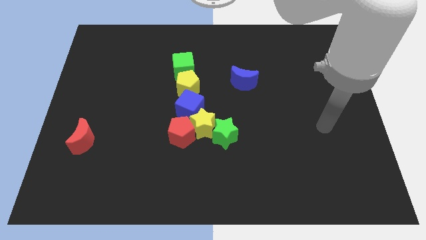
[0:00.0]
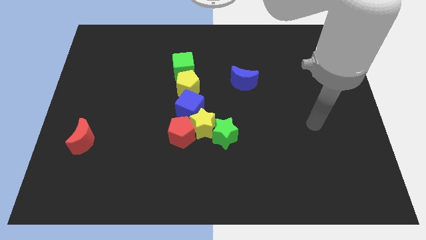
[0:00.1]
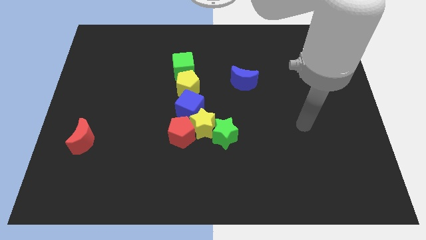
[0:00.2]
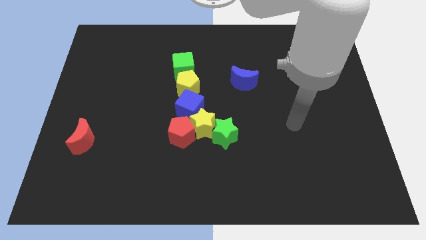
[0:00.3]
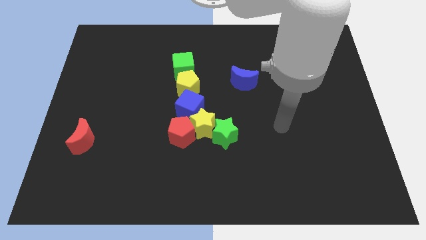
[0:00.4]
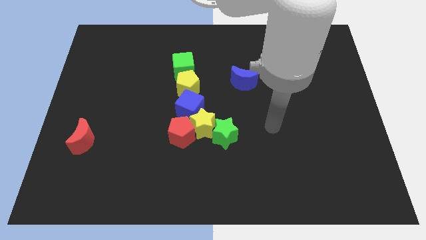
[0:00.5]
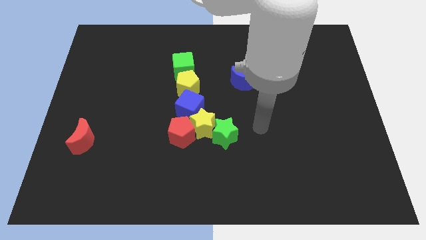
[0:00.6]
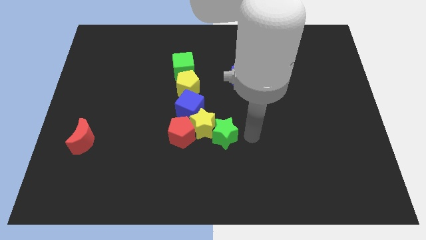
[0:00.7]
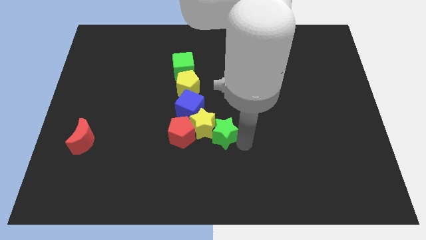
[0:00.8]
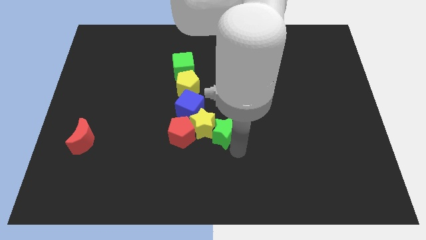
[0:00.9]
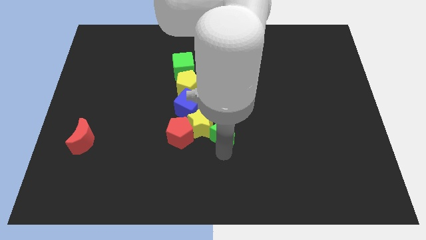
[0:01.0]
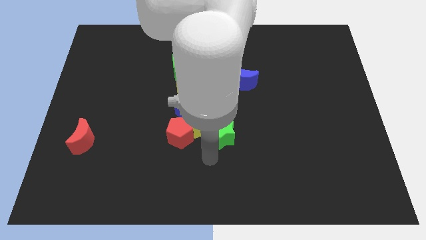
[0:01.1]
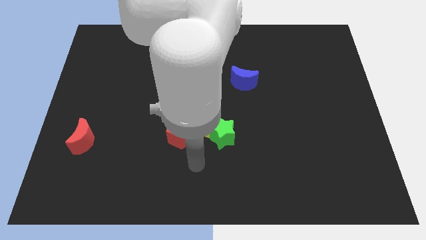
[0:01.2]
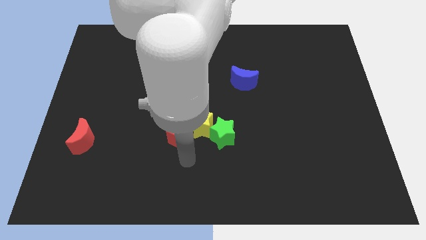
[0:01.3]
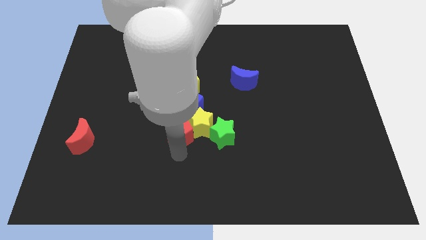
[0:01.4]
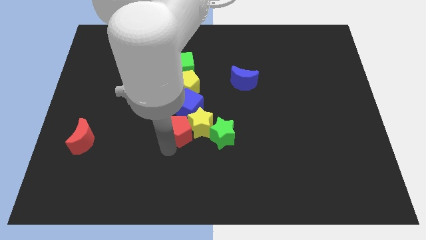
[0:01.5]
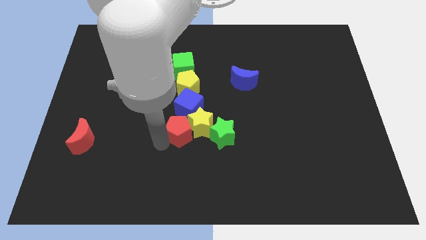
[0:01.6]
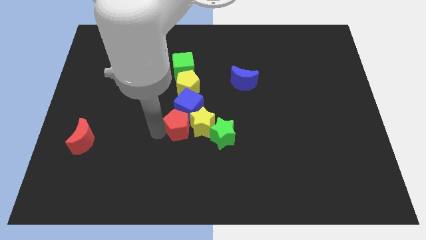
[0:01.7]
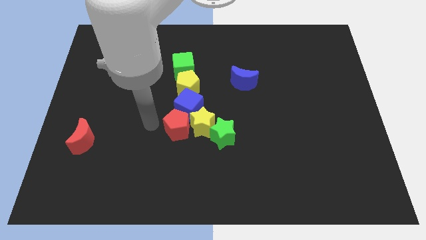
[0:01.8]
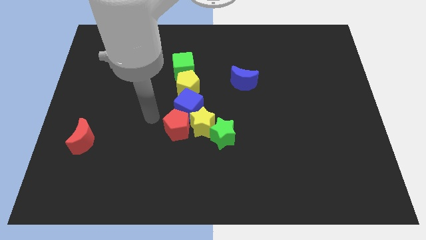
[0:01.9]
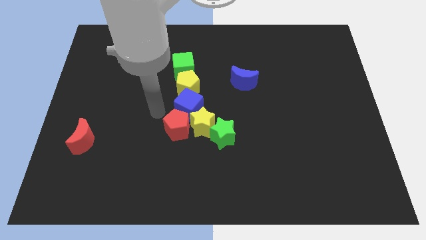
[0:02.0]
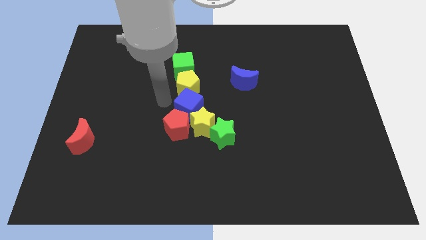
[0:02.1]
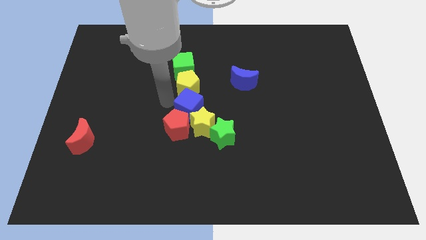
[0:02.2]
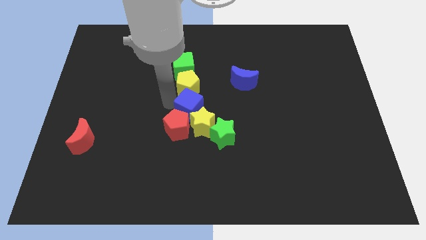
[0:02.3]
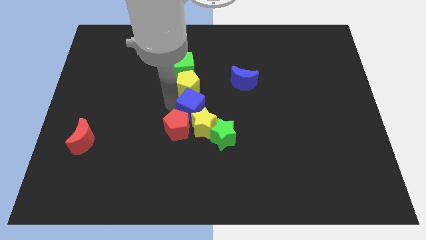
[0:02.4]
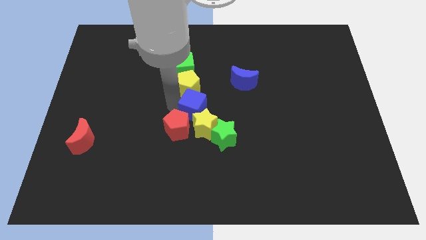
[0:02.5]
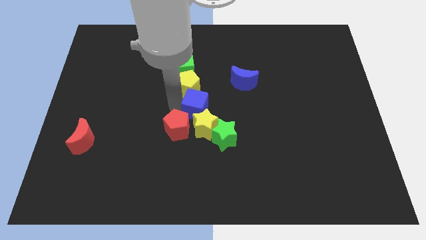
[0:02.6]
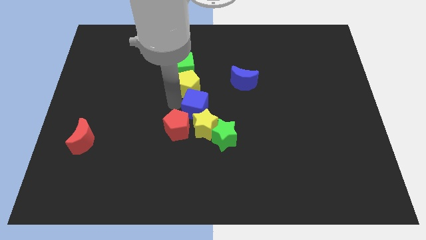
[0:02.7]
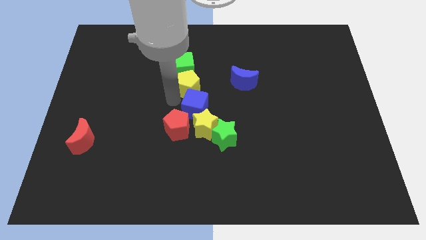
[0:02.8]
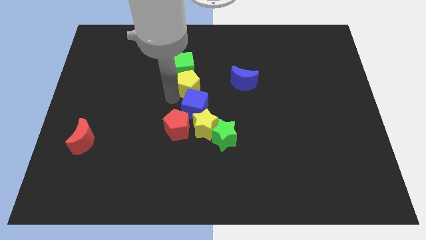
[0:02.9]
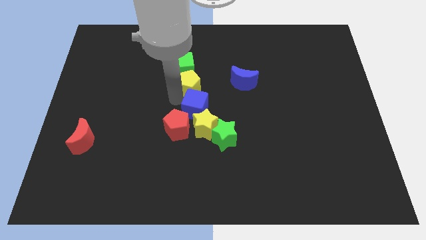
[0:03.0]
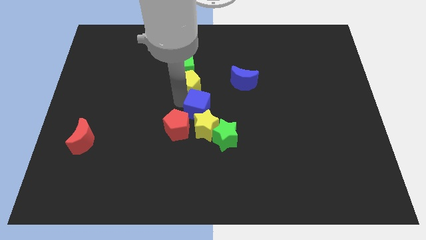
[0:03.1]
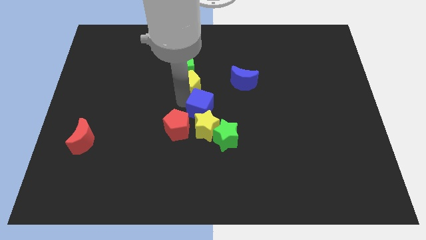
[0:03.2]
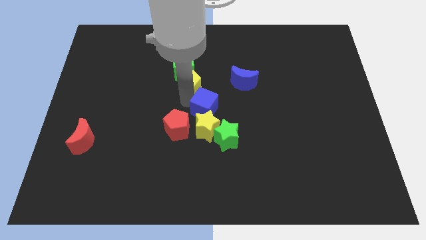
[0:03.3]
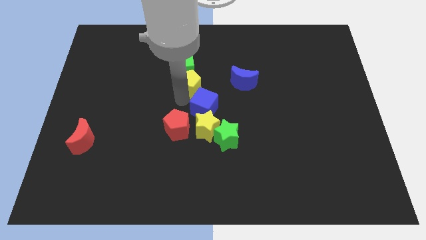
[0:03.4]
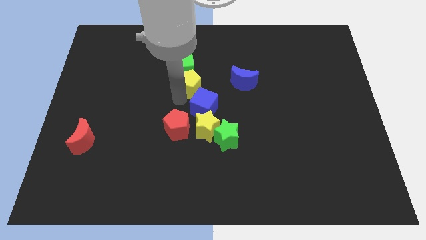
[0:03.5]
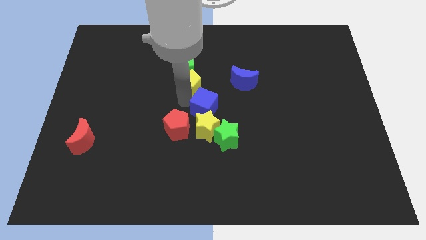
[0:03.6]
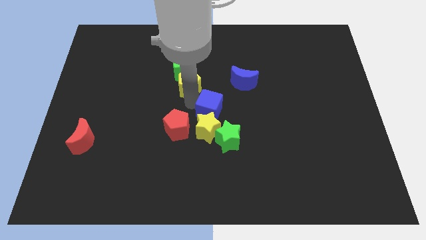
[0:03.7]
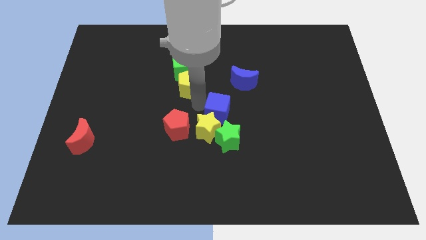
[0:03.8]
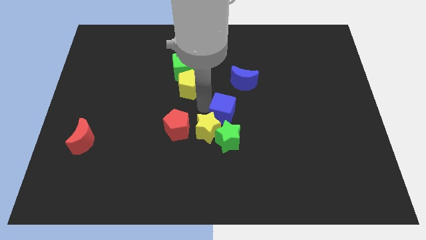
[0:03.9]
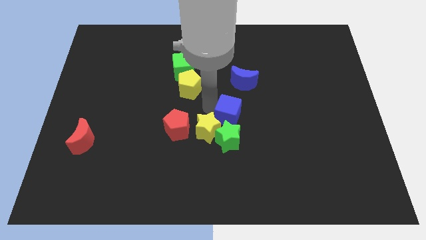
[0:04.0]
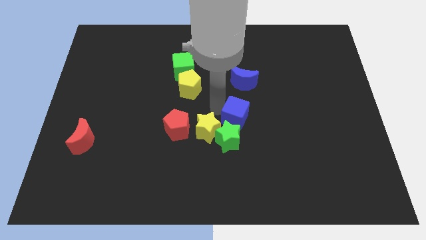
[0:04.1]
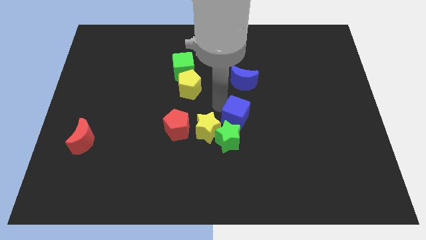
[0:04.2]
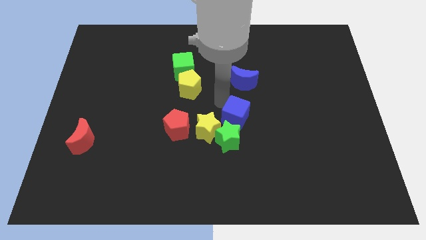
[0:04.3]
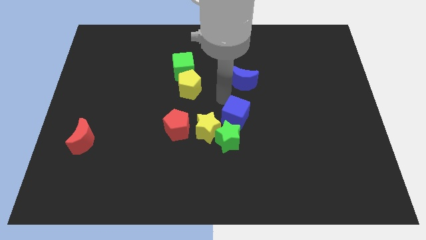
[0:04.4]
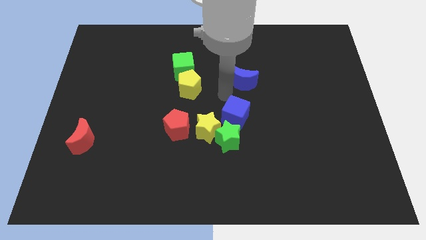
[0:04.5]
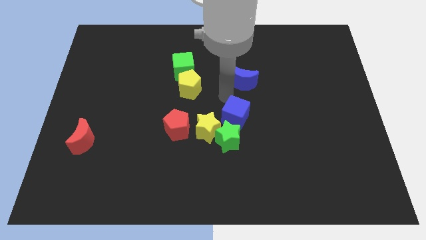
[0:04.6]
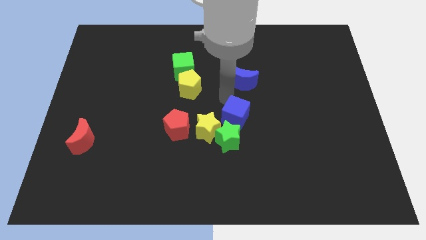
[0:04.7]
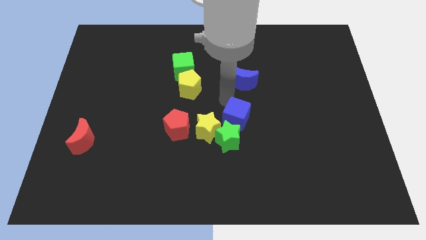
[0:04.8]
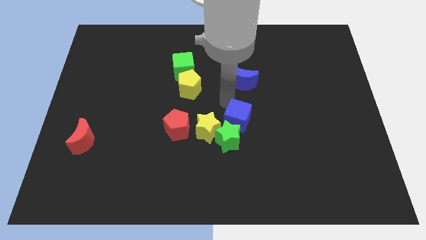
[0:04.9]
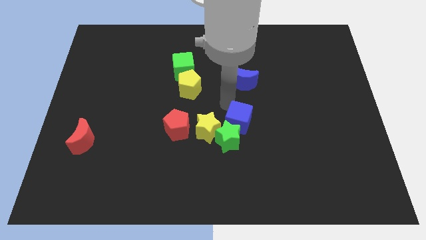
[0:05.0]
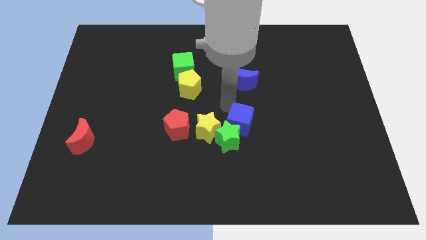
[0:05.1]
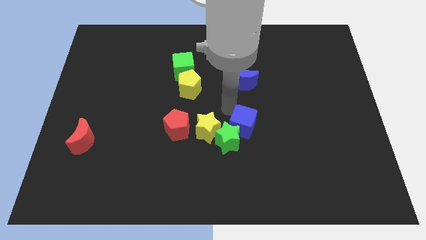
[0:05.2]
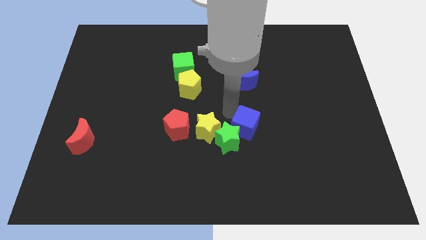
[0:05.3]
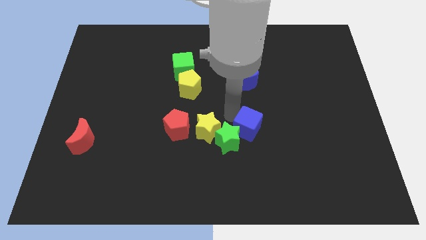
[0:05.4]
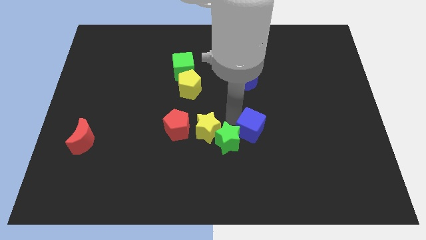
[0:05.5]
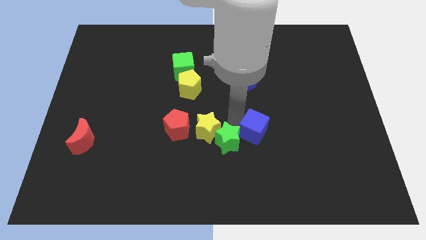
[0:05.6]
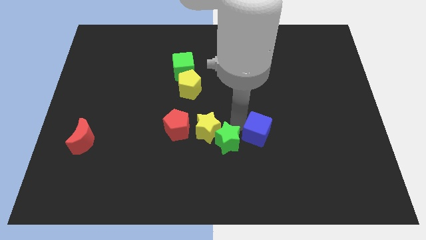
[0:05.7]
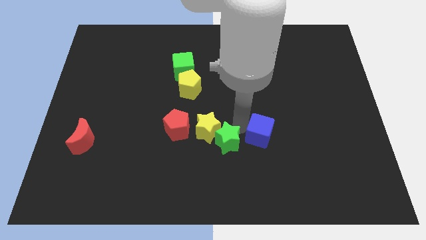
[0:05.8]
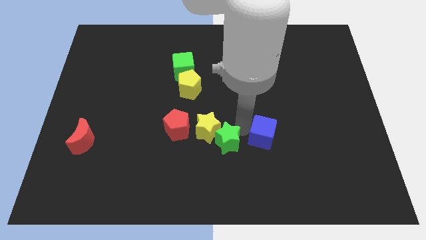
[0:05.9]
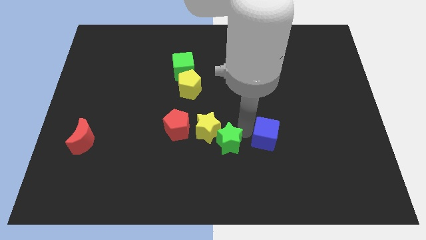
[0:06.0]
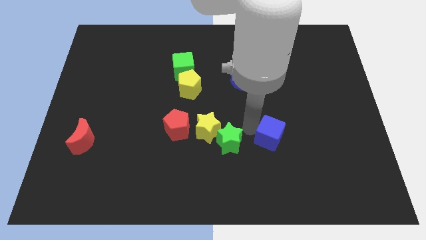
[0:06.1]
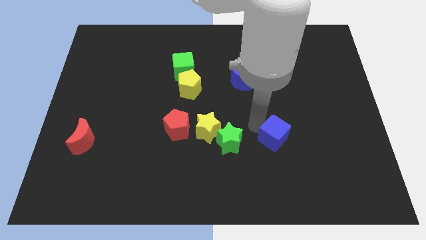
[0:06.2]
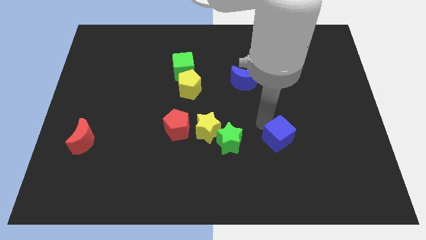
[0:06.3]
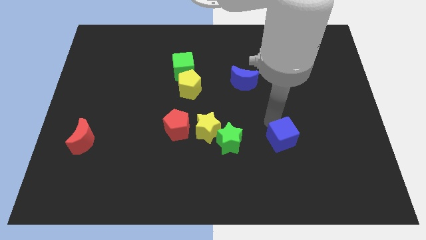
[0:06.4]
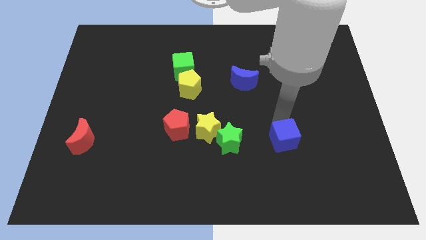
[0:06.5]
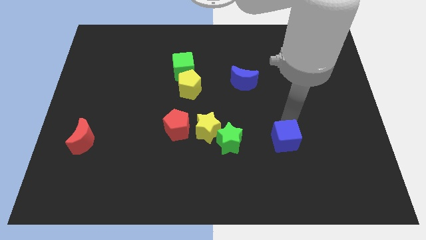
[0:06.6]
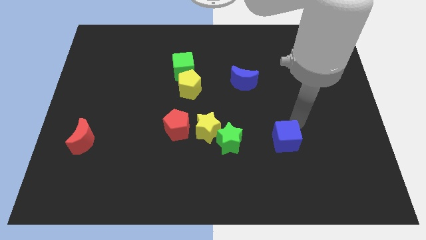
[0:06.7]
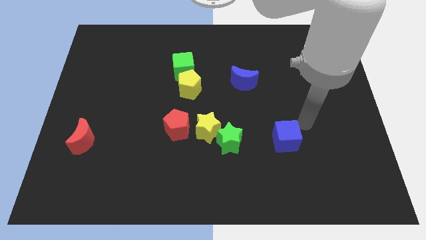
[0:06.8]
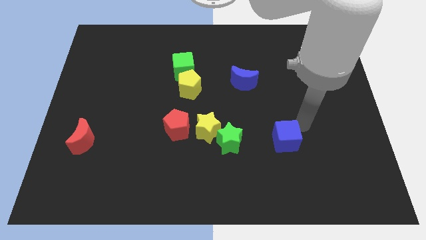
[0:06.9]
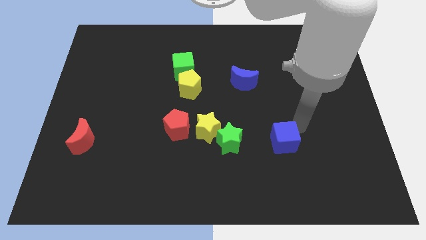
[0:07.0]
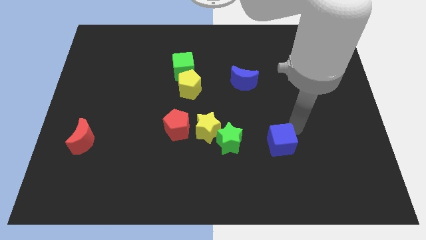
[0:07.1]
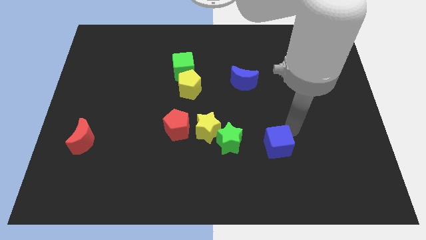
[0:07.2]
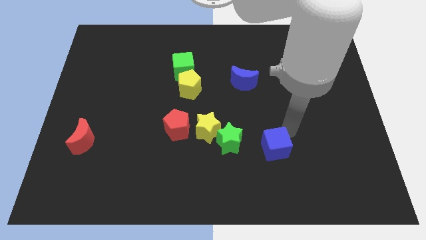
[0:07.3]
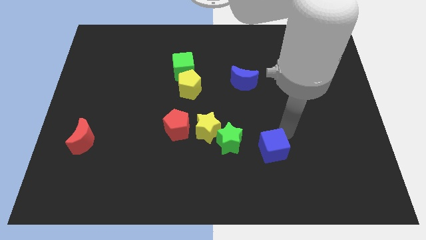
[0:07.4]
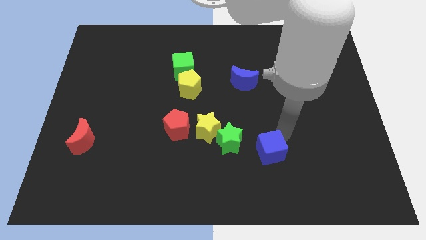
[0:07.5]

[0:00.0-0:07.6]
put the blue cube to the bottom right side of the green star
